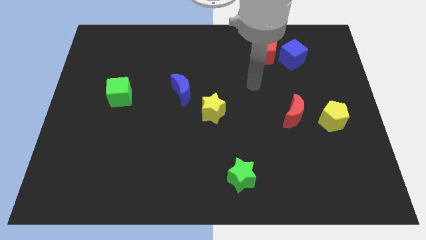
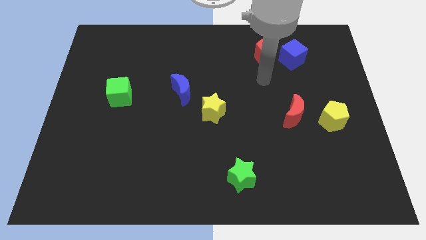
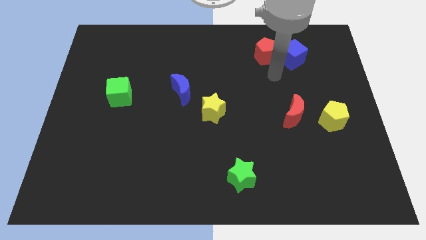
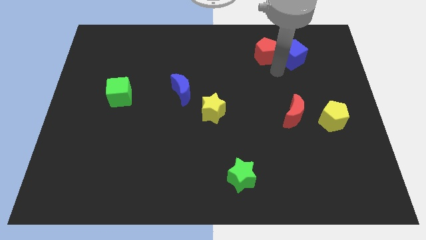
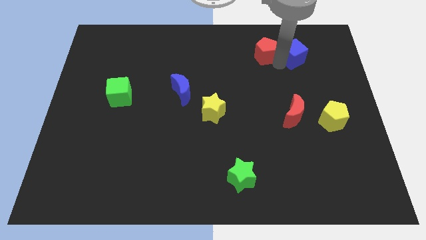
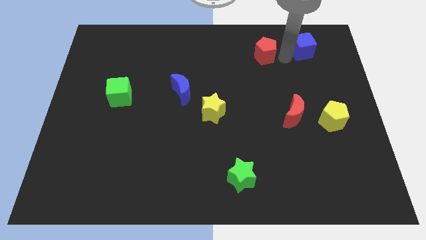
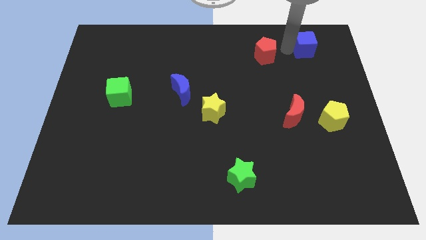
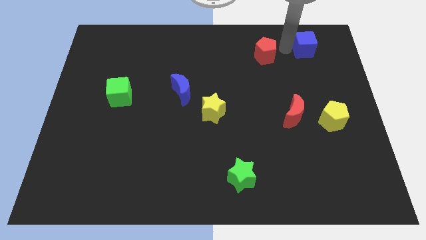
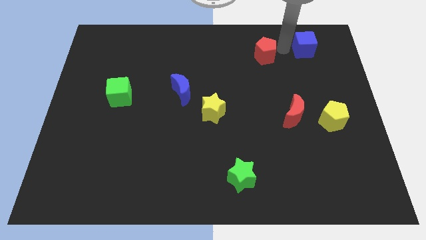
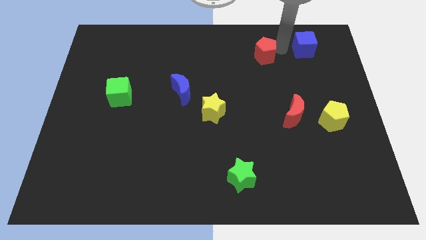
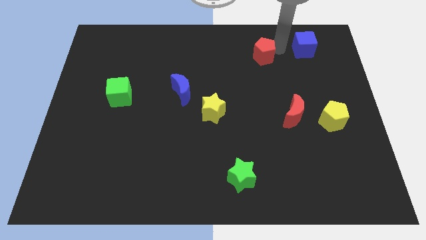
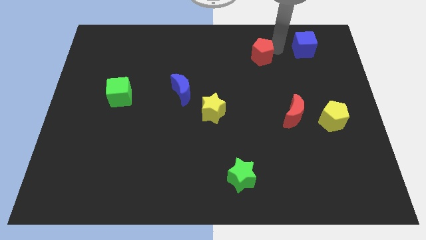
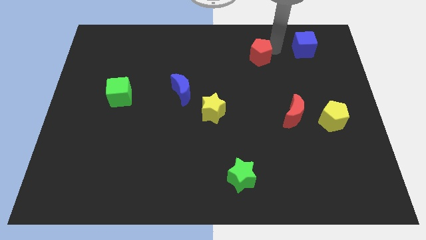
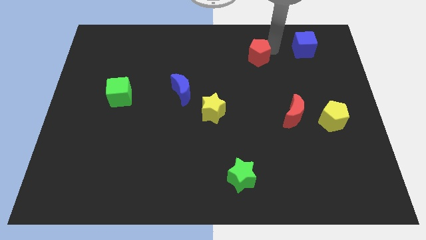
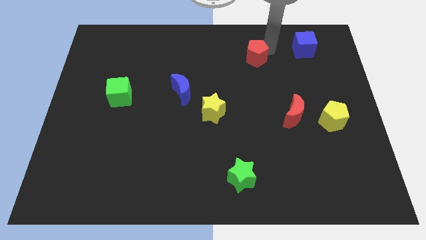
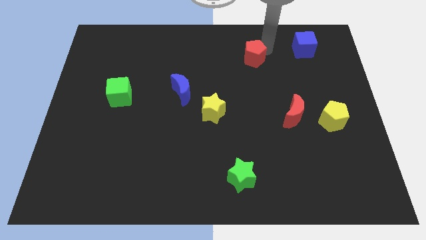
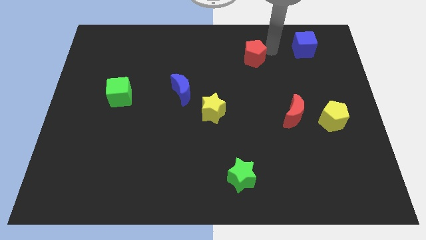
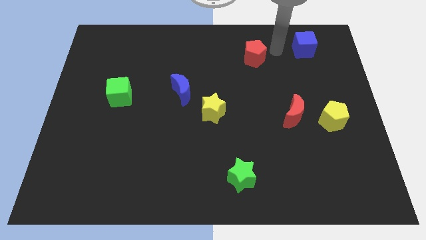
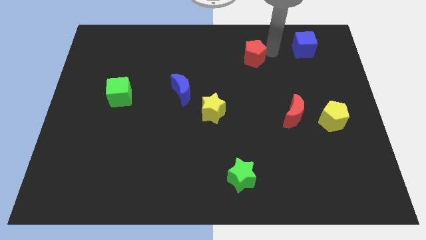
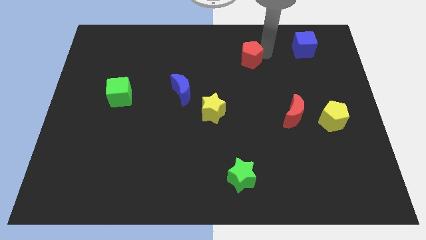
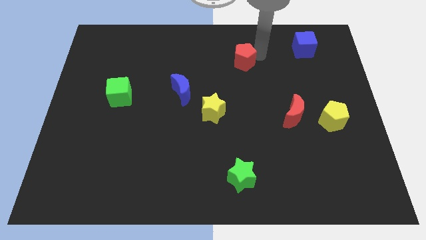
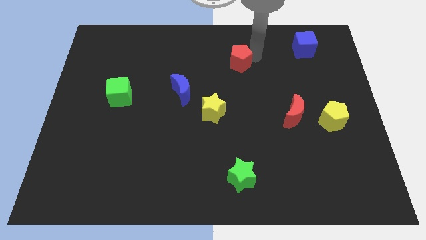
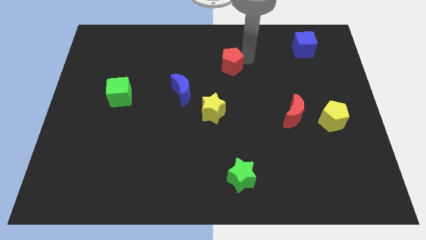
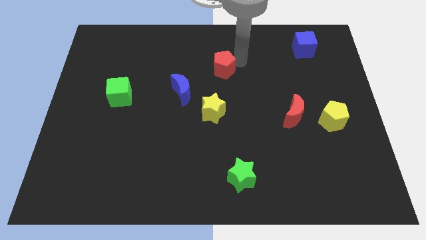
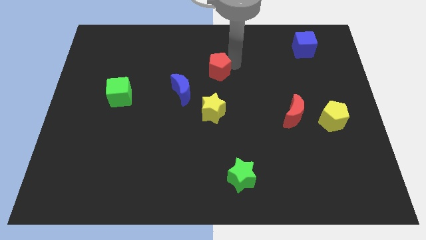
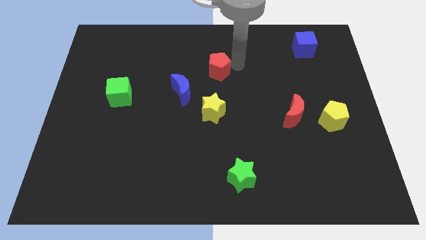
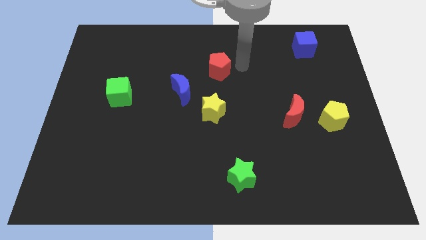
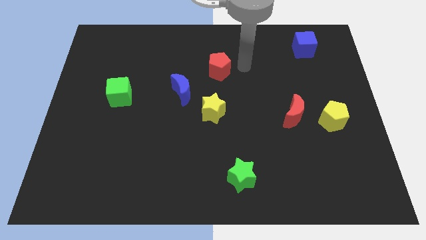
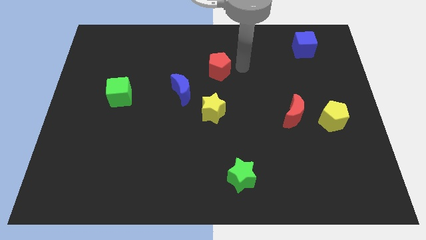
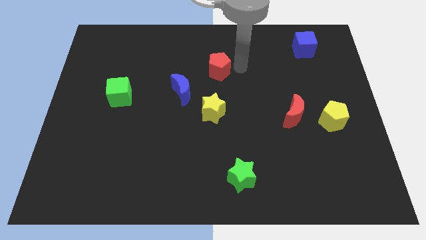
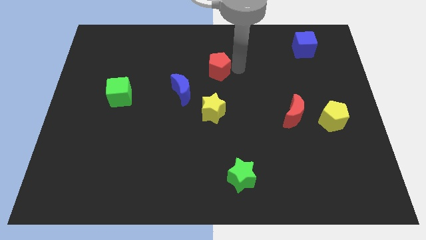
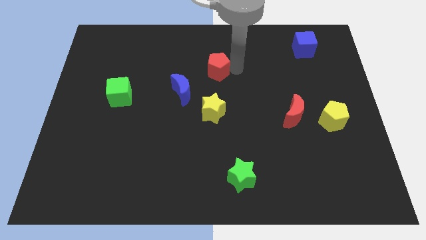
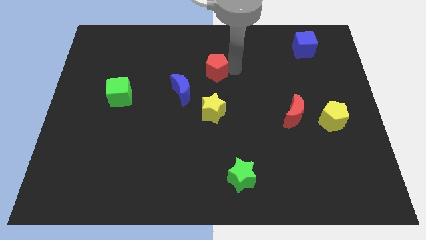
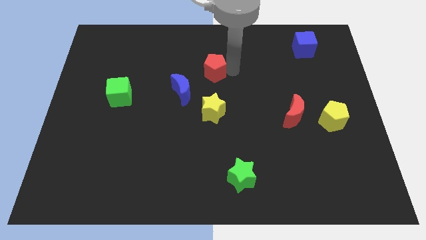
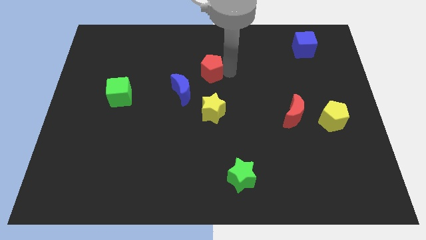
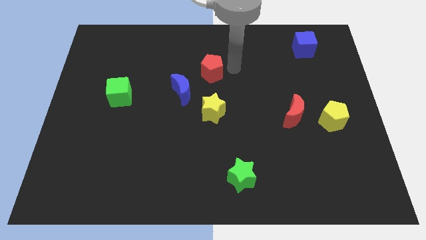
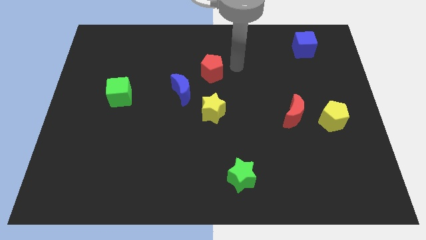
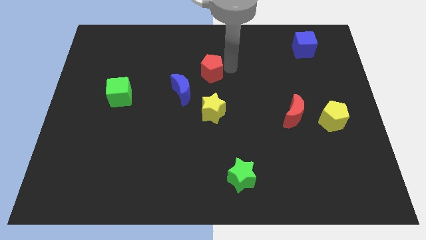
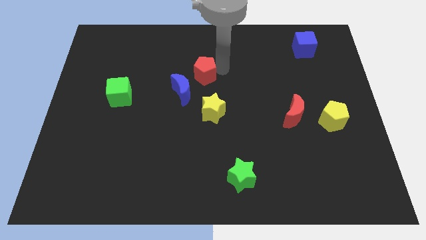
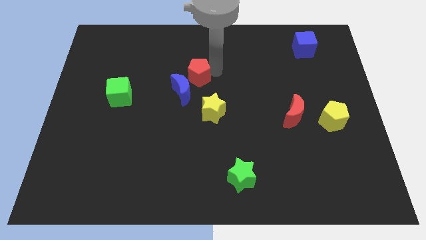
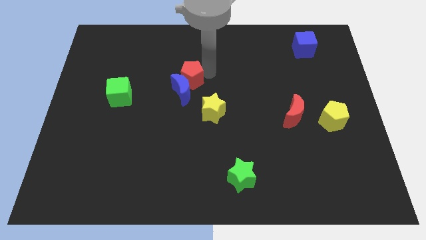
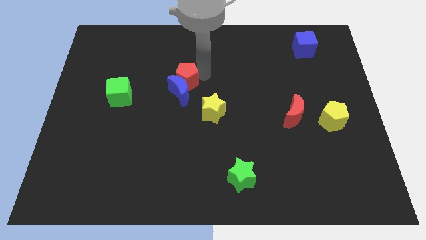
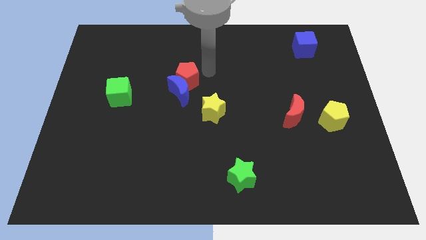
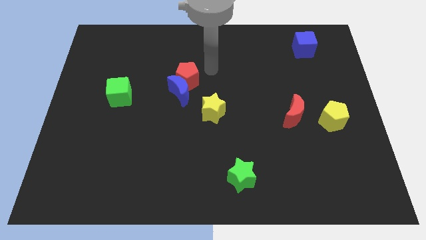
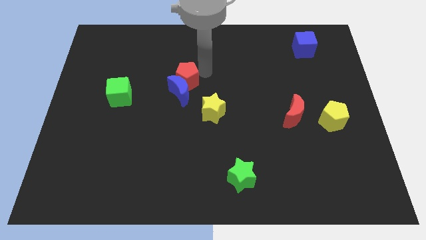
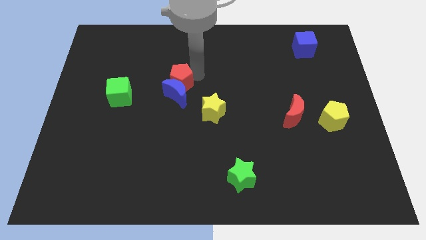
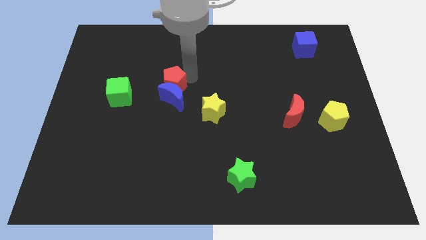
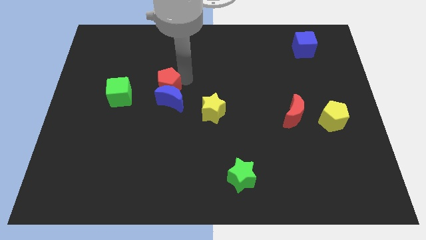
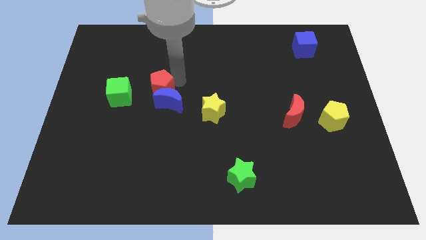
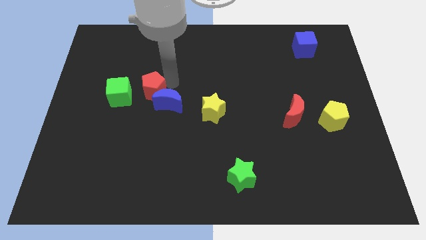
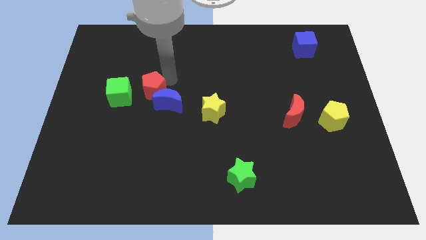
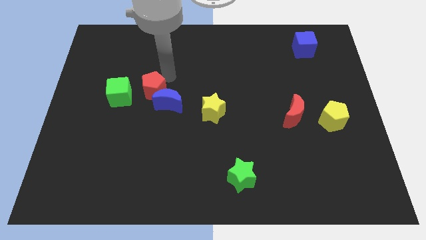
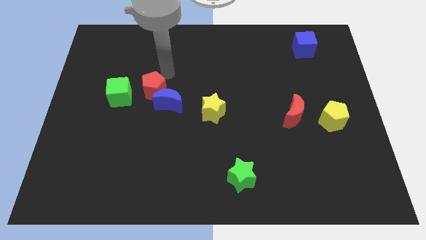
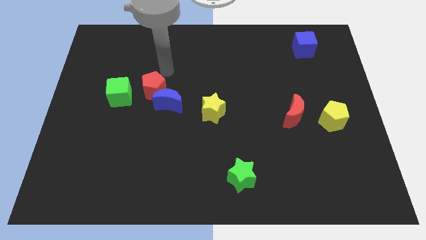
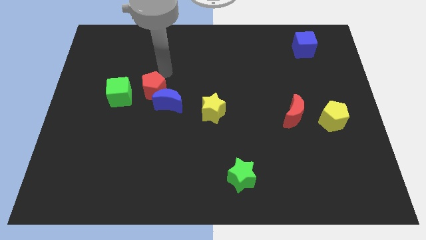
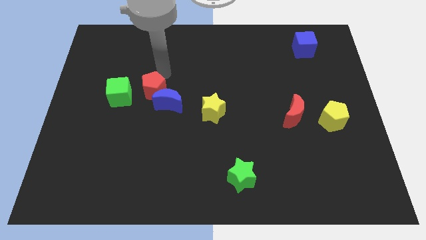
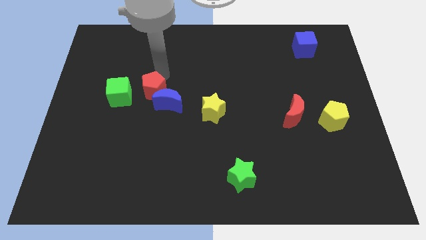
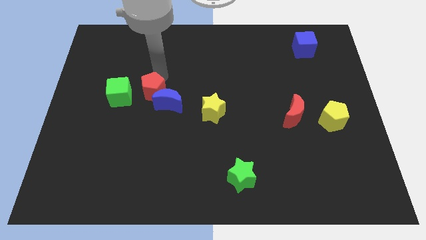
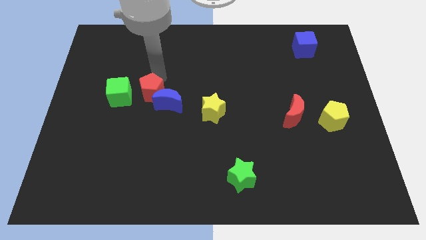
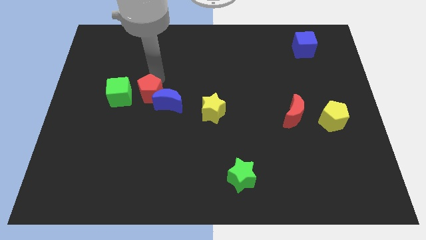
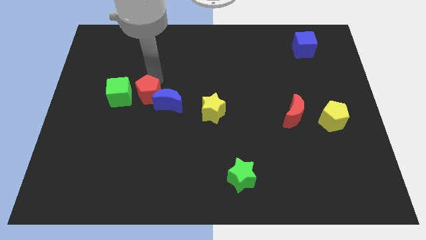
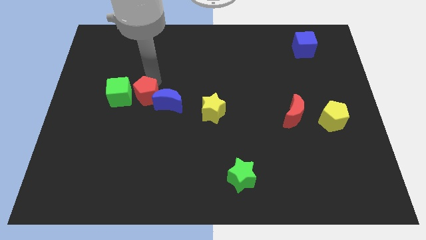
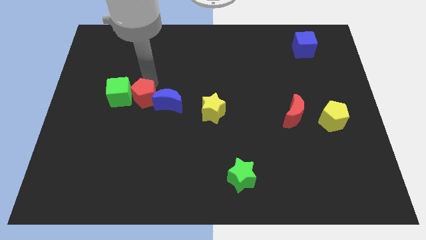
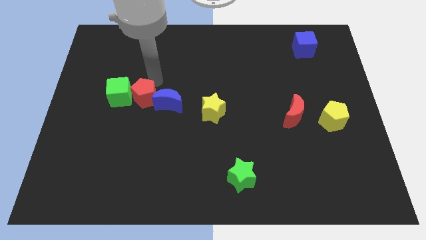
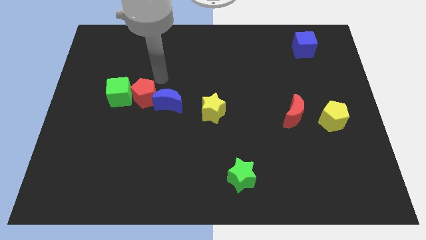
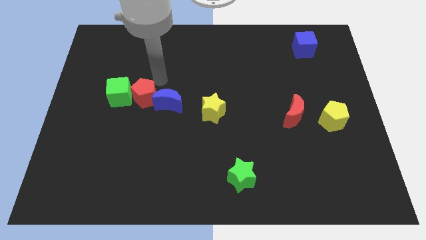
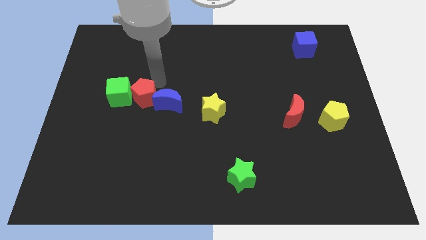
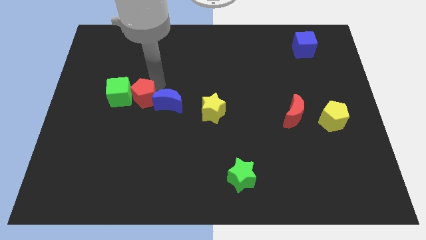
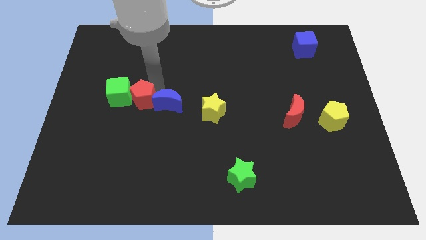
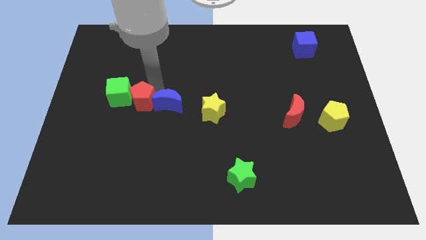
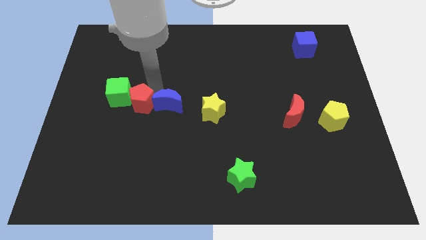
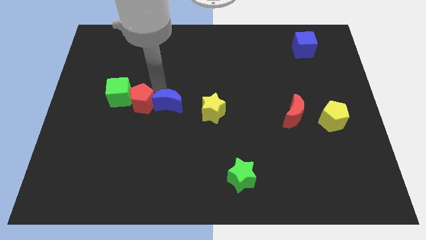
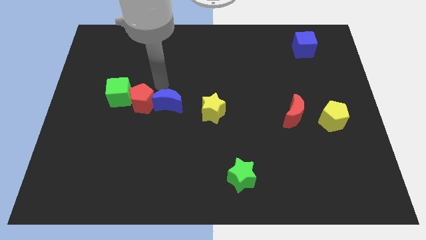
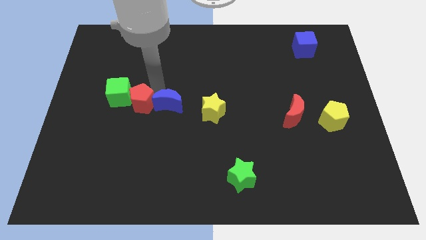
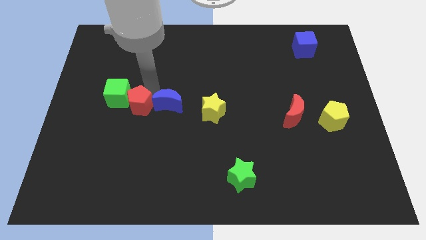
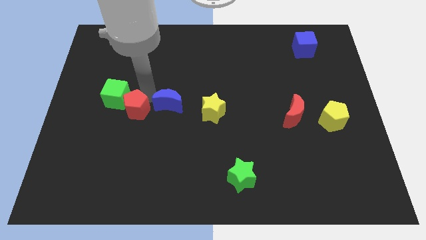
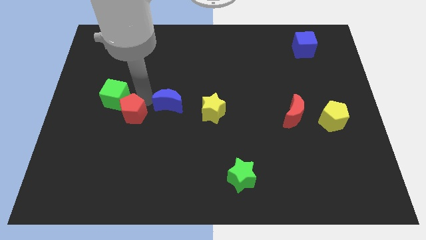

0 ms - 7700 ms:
move the red pentagon to the bottom of the green cube
